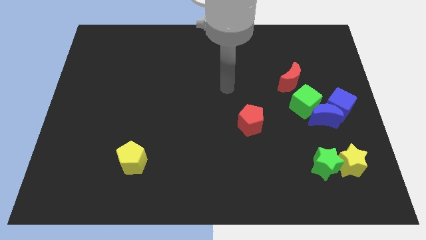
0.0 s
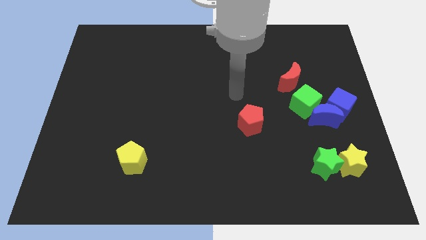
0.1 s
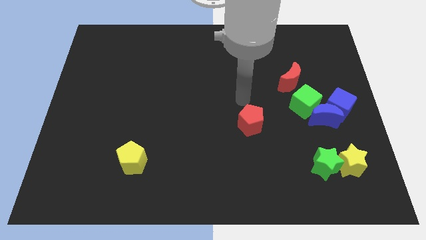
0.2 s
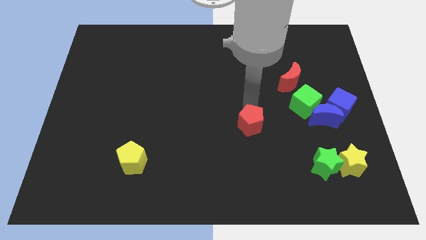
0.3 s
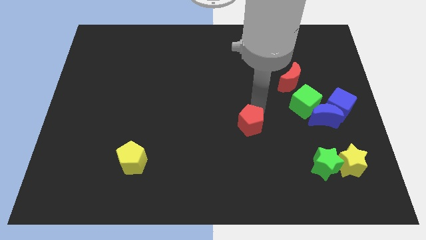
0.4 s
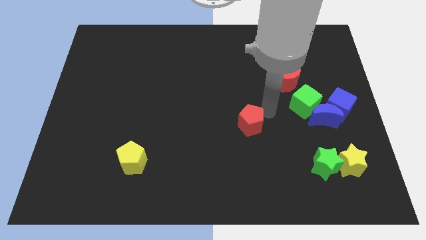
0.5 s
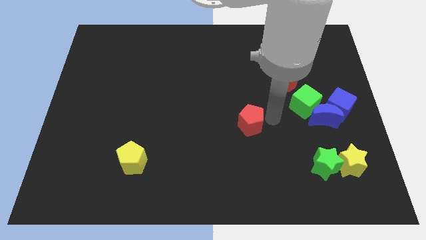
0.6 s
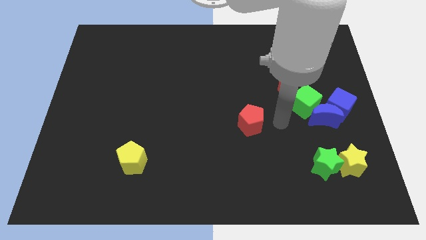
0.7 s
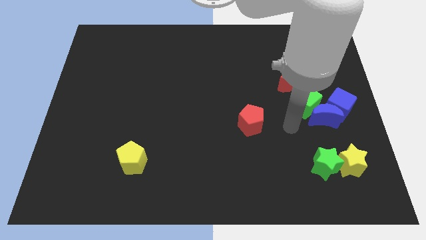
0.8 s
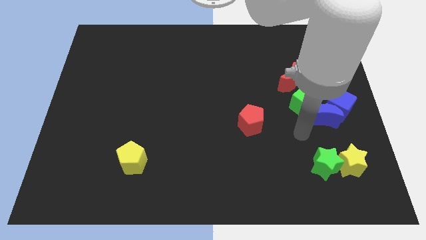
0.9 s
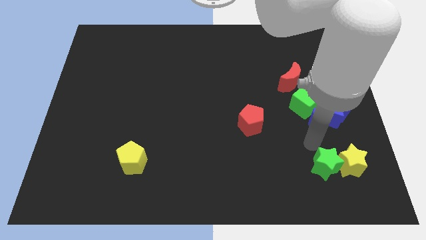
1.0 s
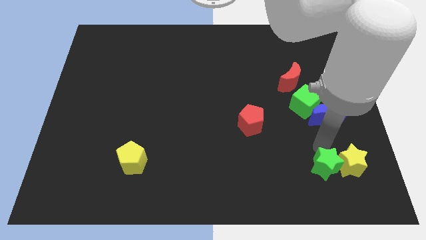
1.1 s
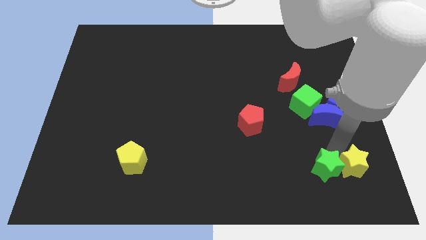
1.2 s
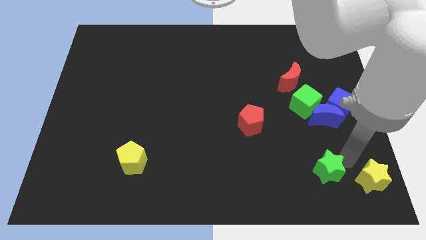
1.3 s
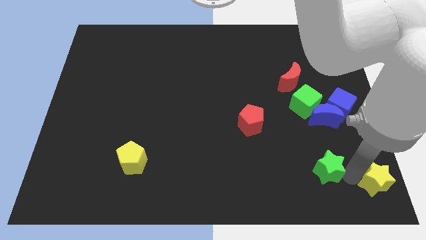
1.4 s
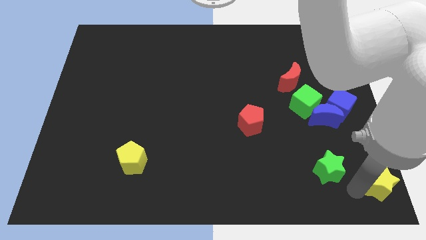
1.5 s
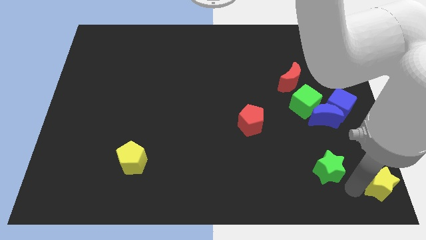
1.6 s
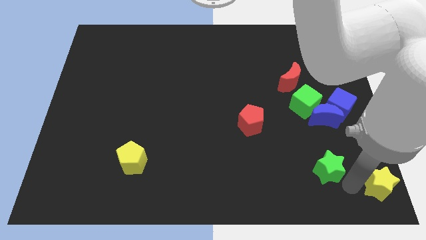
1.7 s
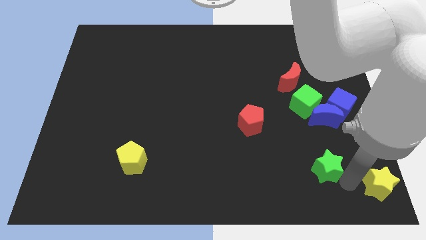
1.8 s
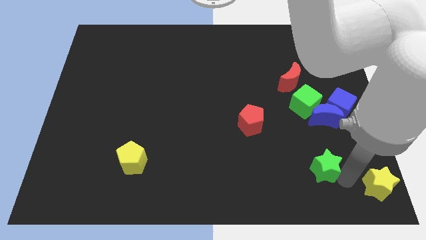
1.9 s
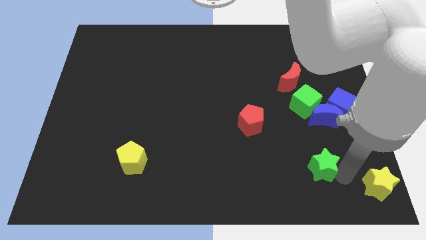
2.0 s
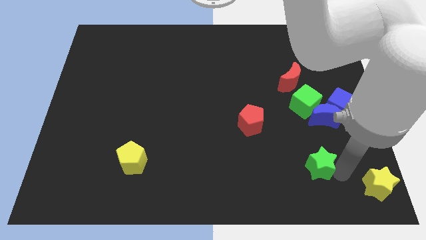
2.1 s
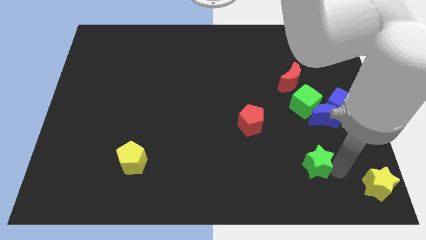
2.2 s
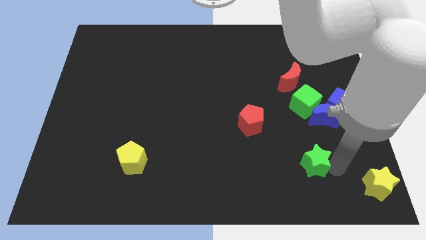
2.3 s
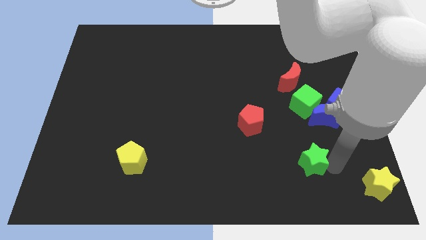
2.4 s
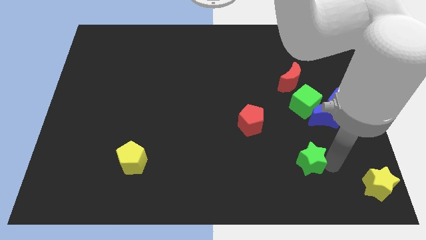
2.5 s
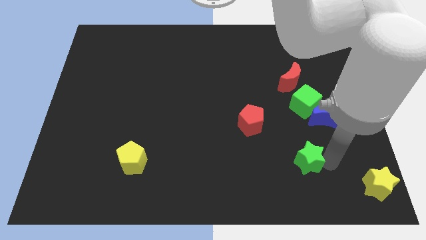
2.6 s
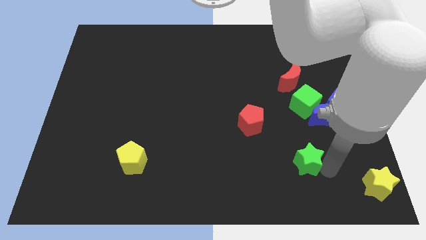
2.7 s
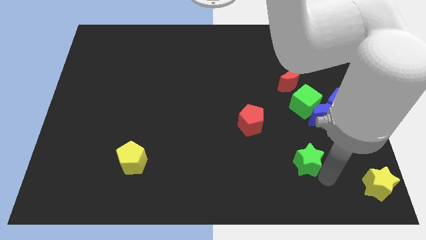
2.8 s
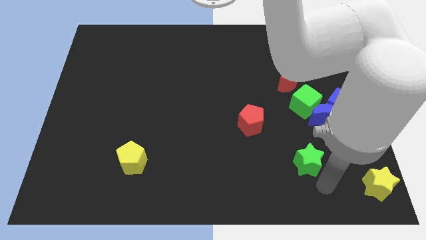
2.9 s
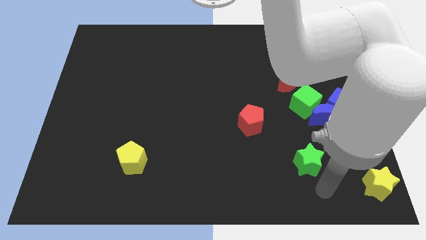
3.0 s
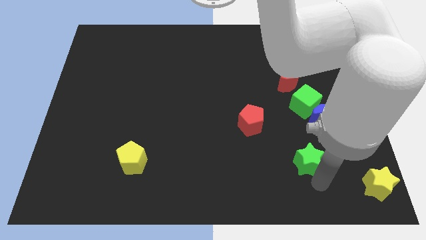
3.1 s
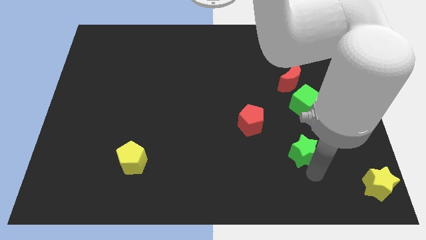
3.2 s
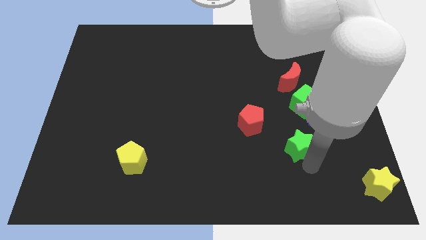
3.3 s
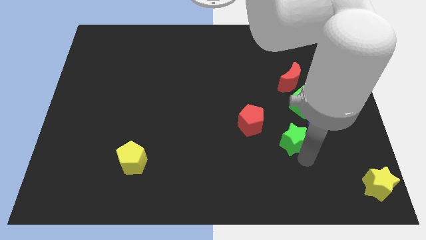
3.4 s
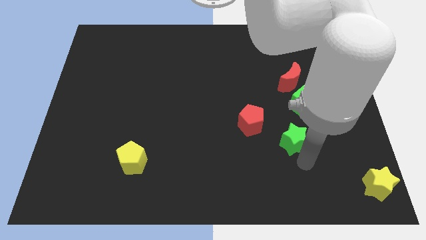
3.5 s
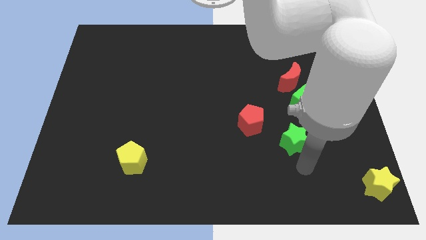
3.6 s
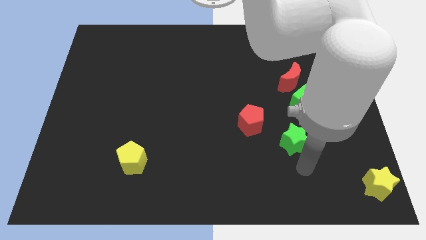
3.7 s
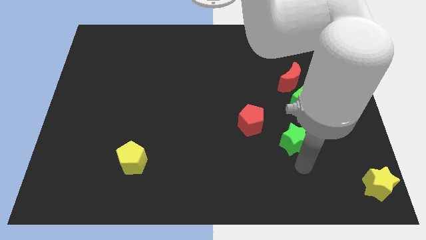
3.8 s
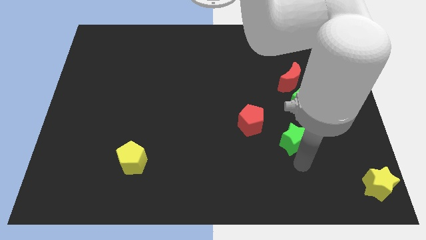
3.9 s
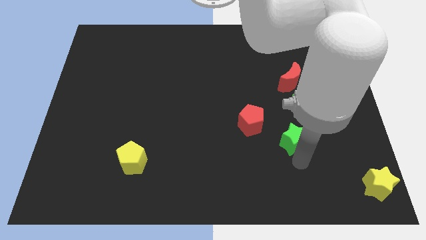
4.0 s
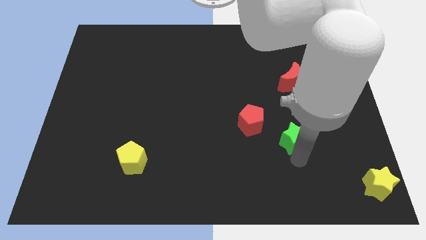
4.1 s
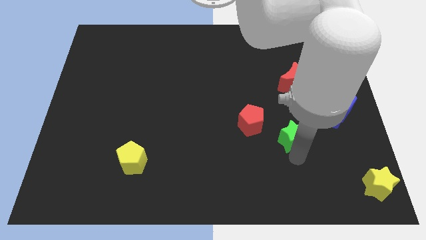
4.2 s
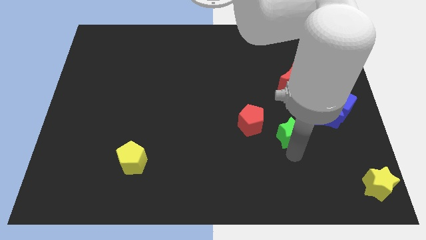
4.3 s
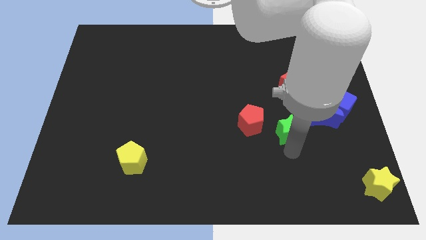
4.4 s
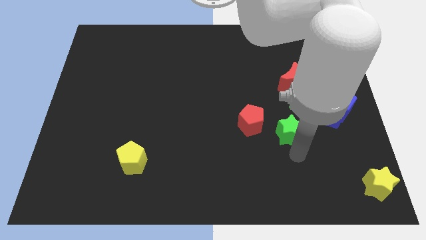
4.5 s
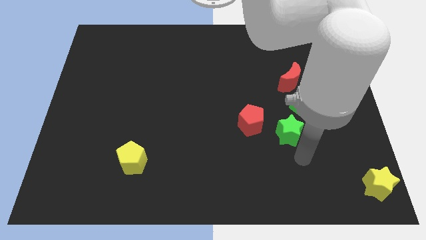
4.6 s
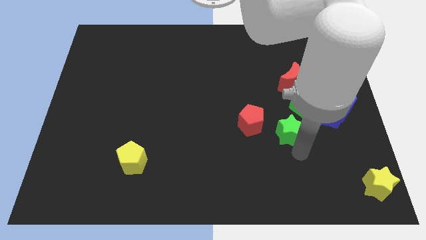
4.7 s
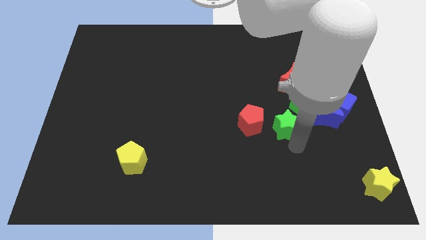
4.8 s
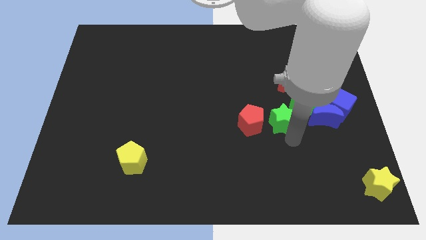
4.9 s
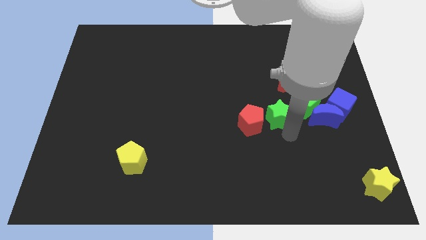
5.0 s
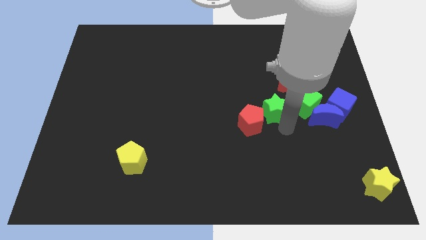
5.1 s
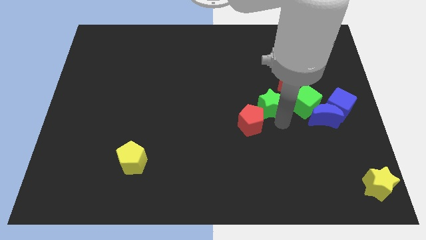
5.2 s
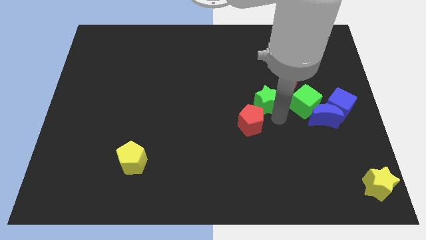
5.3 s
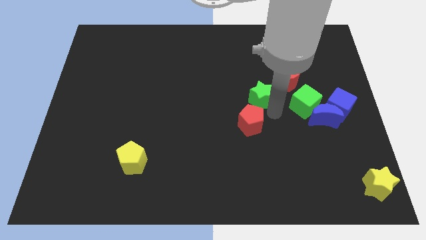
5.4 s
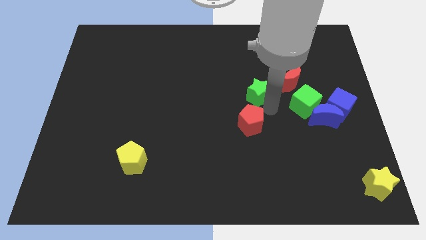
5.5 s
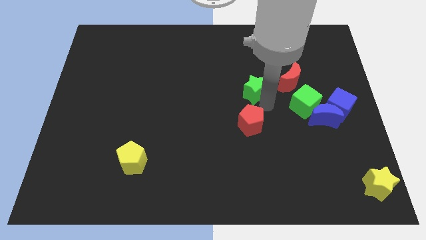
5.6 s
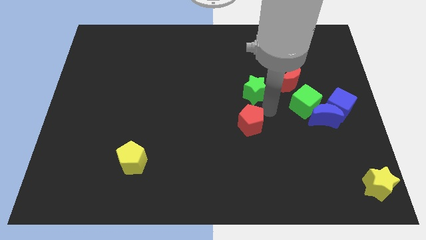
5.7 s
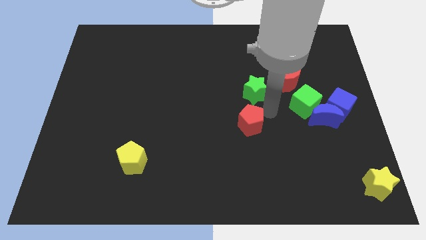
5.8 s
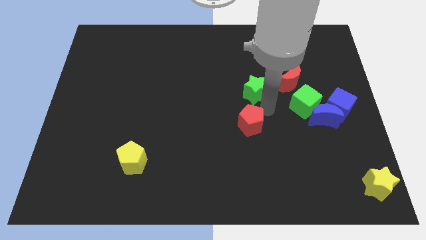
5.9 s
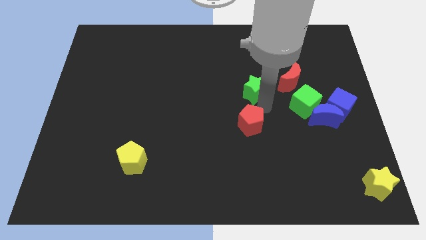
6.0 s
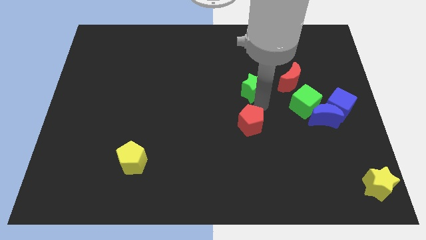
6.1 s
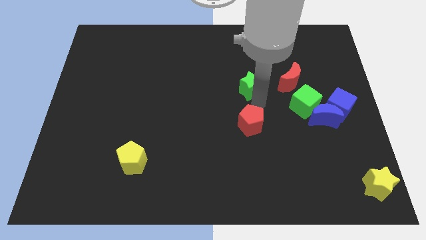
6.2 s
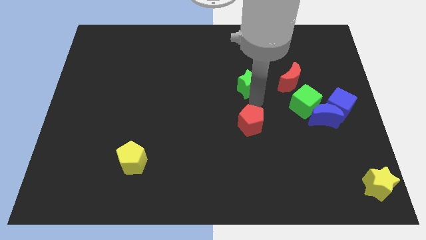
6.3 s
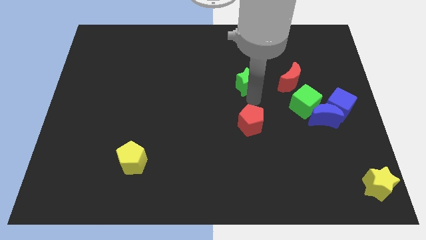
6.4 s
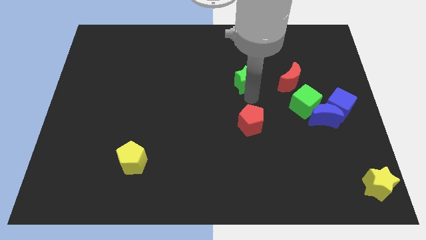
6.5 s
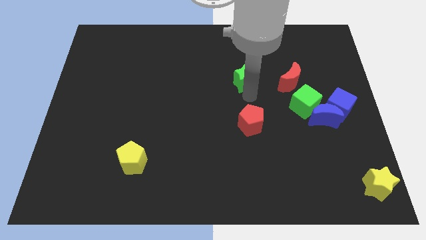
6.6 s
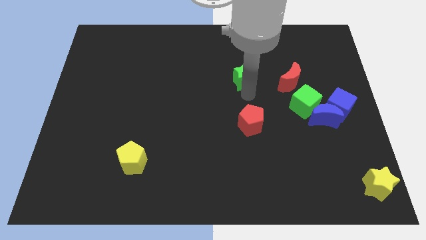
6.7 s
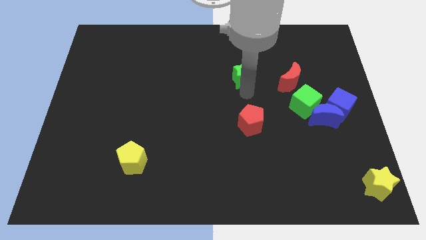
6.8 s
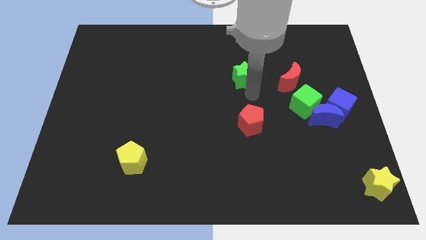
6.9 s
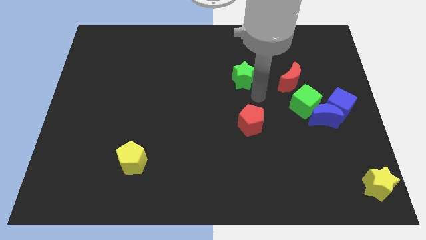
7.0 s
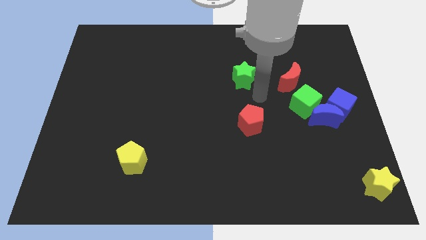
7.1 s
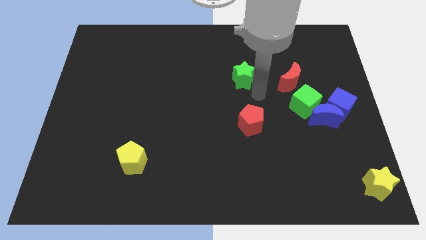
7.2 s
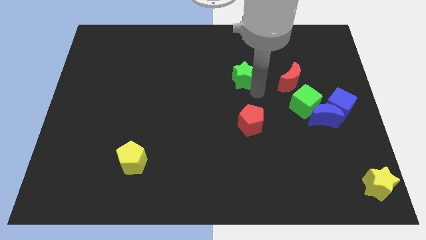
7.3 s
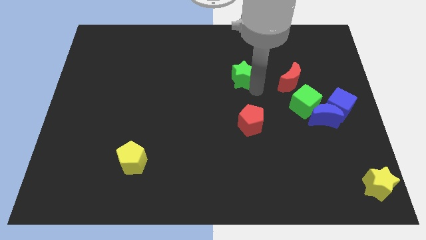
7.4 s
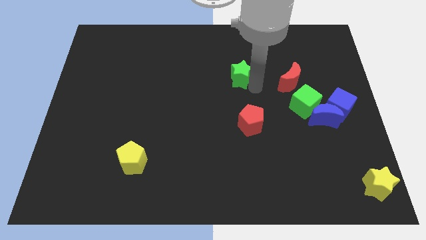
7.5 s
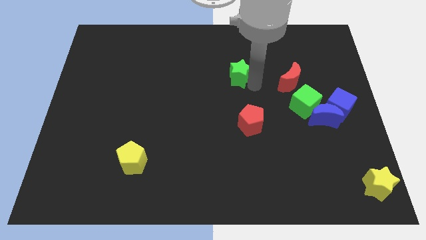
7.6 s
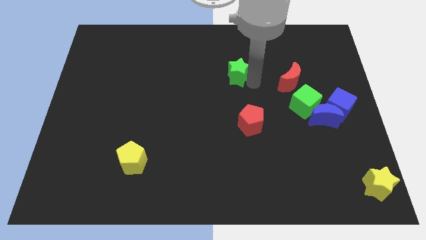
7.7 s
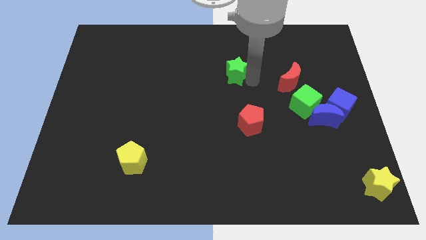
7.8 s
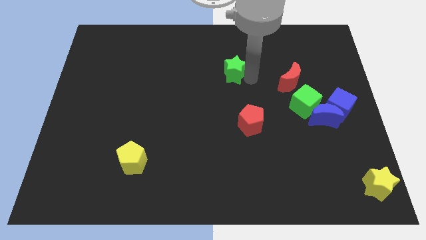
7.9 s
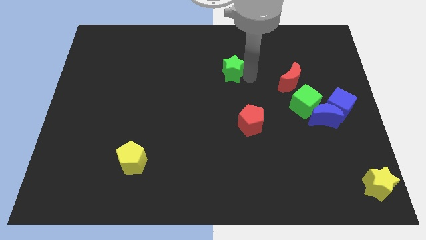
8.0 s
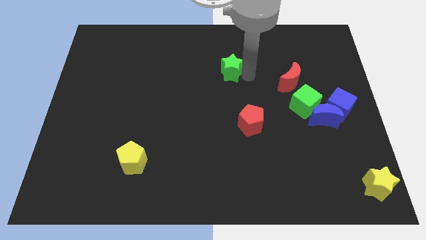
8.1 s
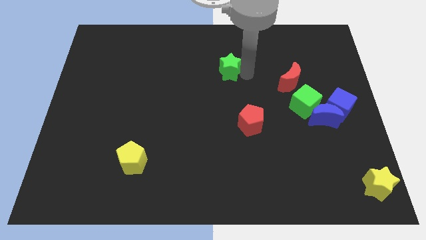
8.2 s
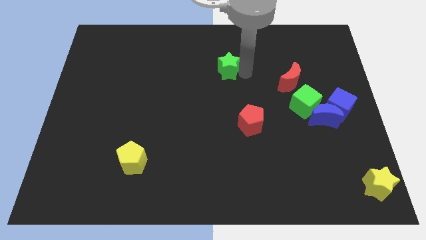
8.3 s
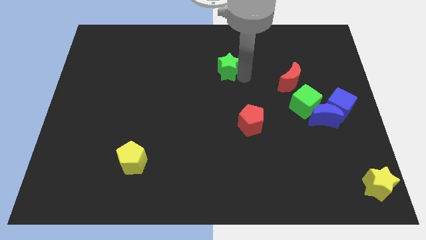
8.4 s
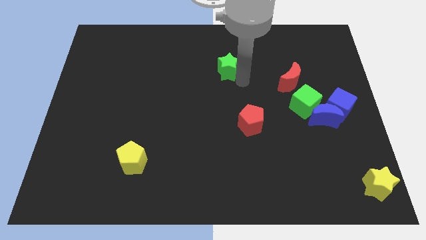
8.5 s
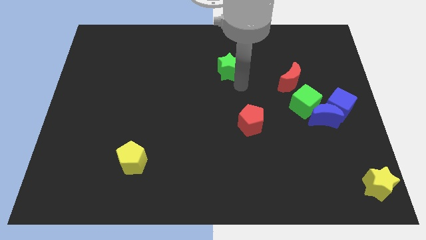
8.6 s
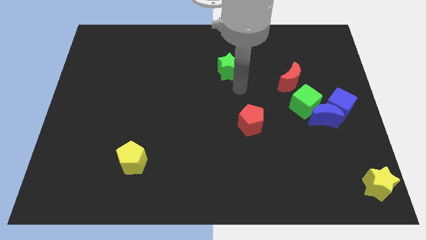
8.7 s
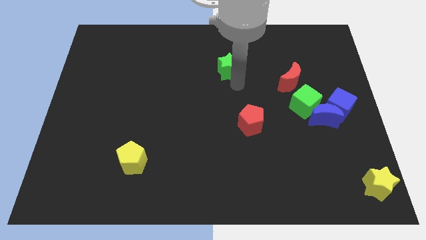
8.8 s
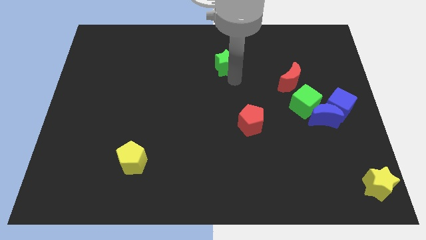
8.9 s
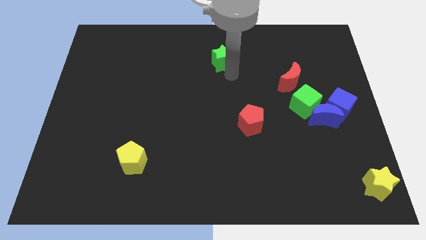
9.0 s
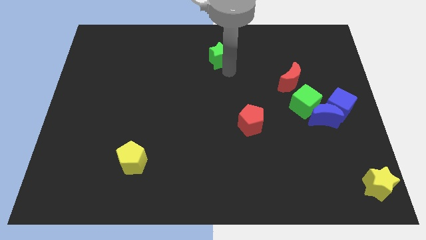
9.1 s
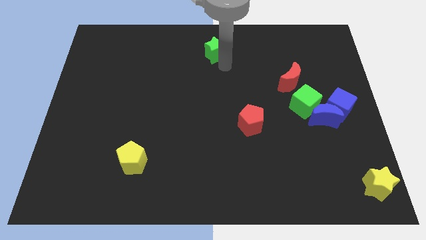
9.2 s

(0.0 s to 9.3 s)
slide the green star to the towards your base
